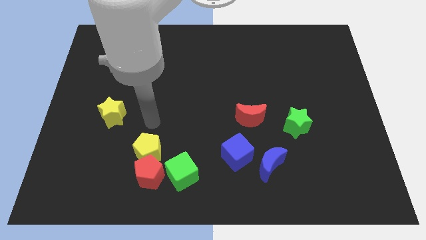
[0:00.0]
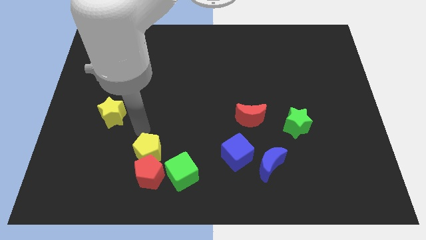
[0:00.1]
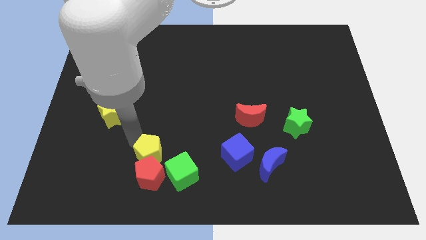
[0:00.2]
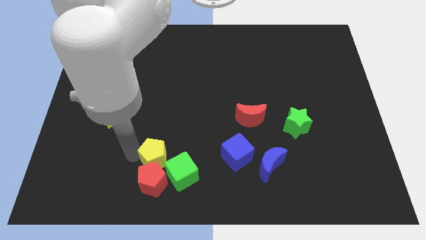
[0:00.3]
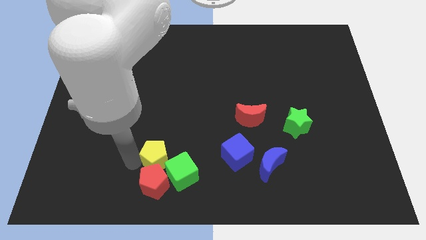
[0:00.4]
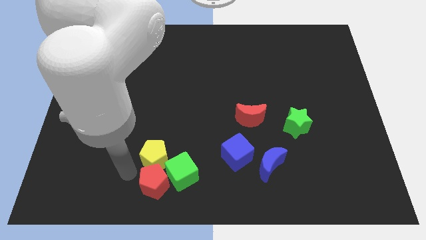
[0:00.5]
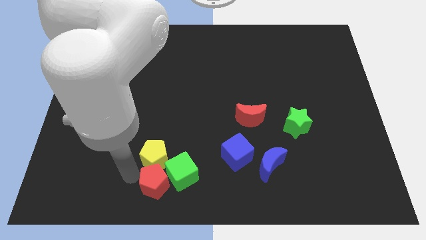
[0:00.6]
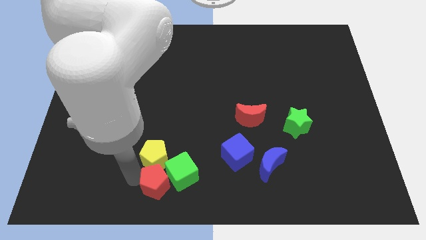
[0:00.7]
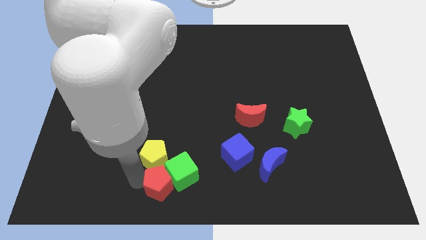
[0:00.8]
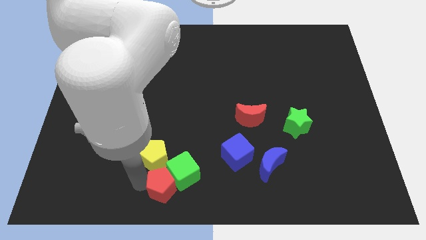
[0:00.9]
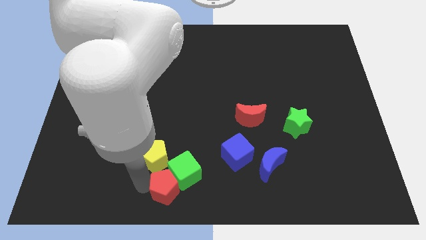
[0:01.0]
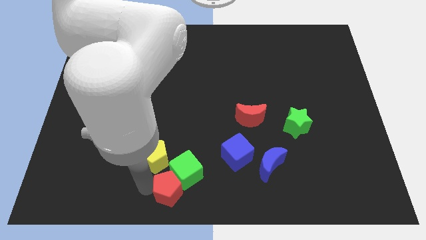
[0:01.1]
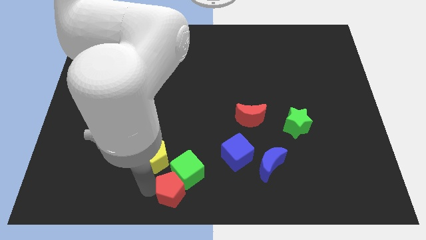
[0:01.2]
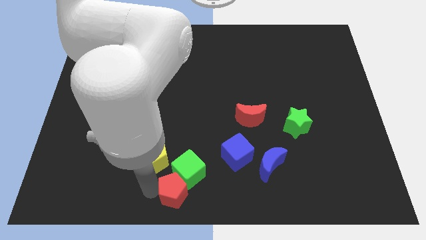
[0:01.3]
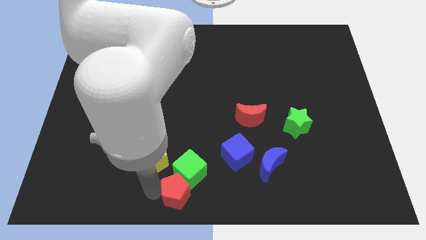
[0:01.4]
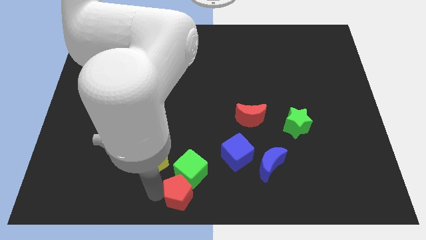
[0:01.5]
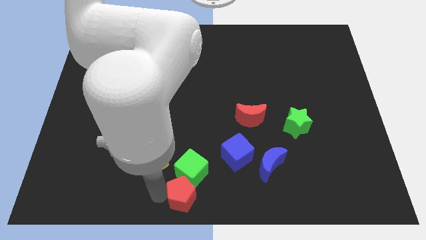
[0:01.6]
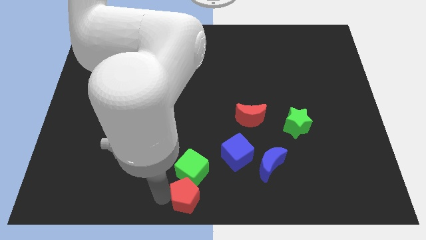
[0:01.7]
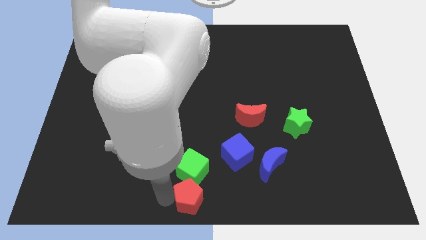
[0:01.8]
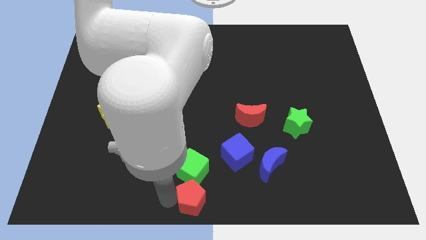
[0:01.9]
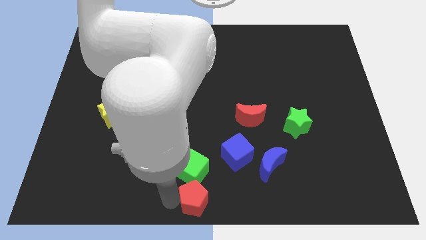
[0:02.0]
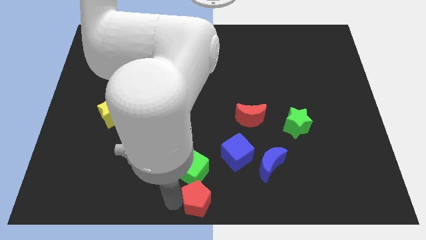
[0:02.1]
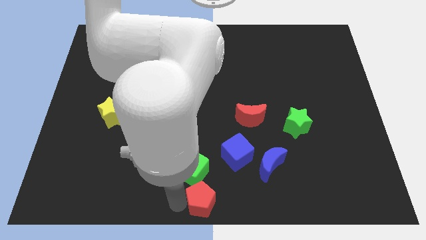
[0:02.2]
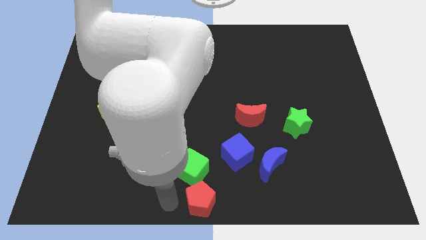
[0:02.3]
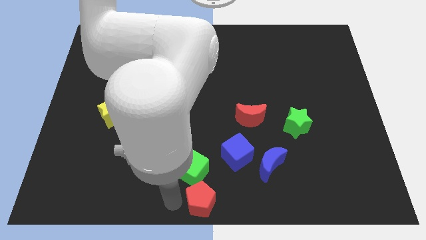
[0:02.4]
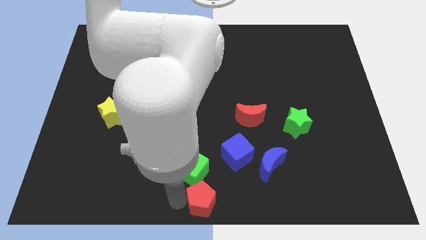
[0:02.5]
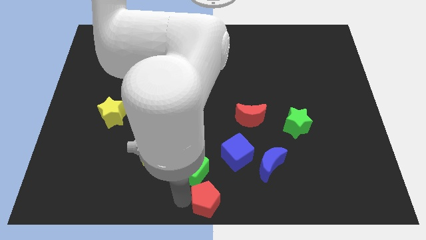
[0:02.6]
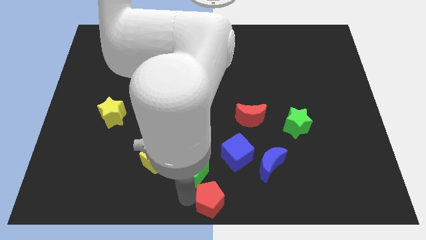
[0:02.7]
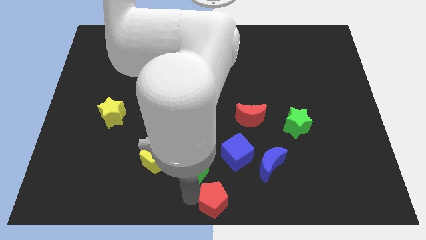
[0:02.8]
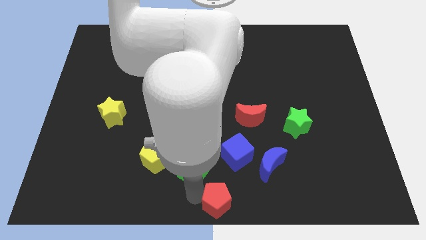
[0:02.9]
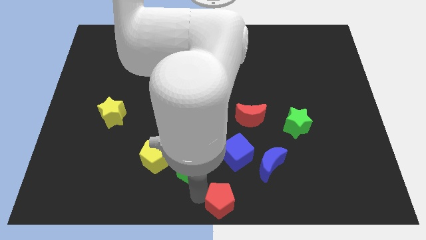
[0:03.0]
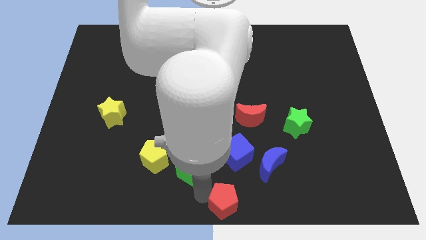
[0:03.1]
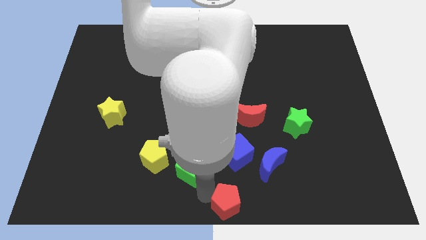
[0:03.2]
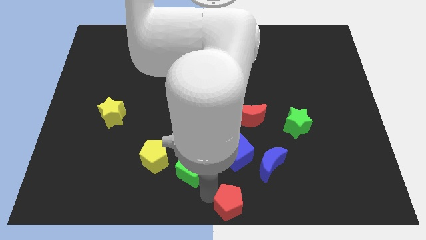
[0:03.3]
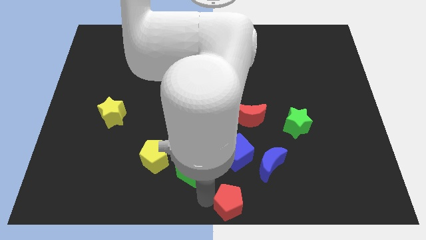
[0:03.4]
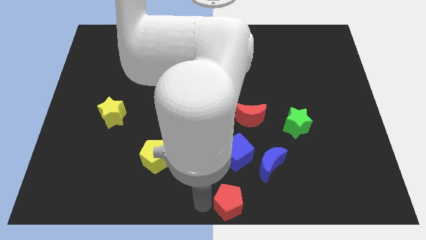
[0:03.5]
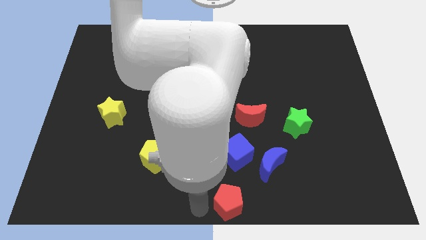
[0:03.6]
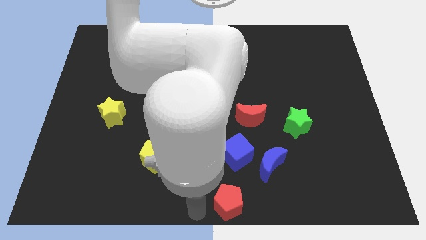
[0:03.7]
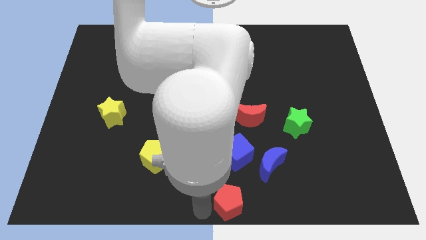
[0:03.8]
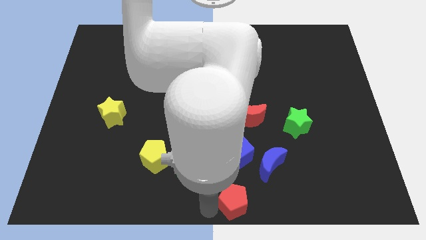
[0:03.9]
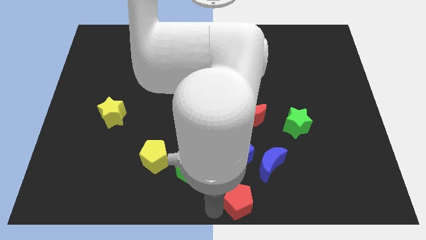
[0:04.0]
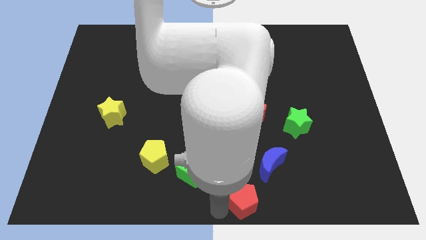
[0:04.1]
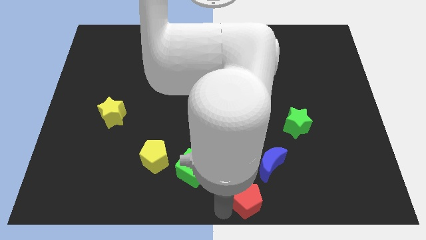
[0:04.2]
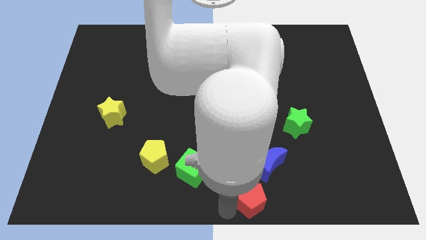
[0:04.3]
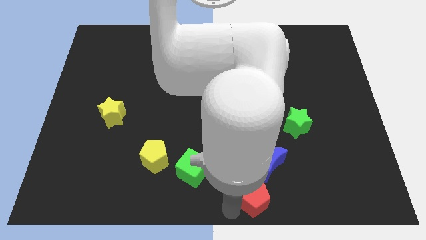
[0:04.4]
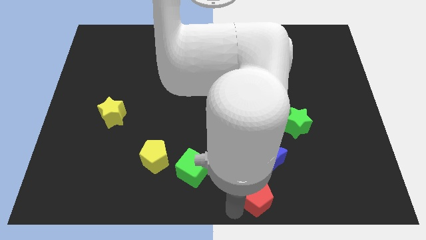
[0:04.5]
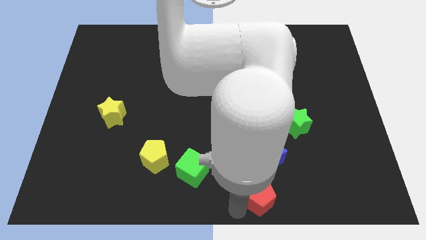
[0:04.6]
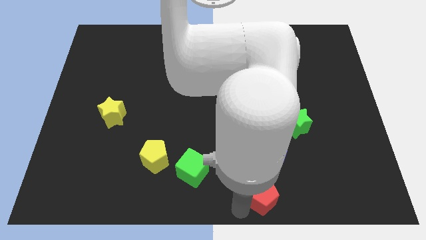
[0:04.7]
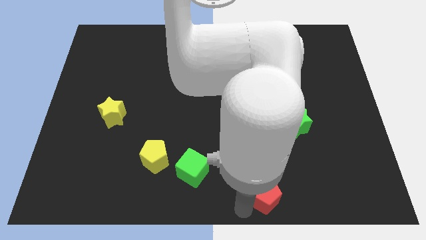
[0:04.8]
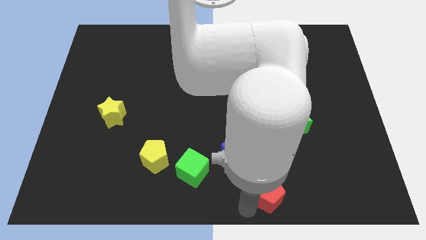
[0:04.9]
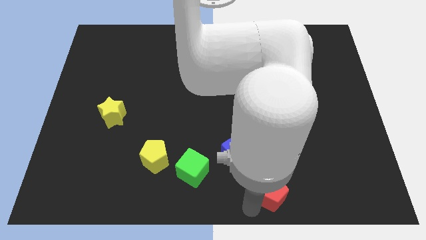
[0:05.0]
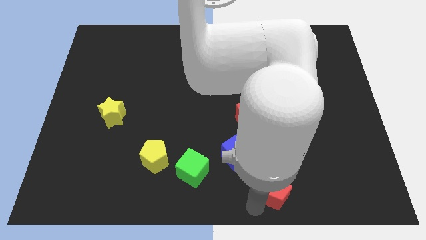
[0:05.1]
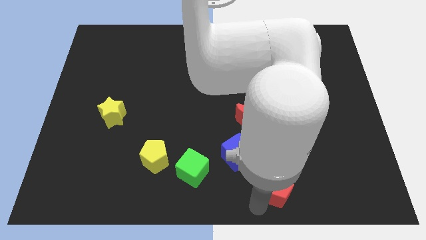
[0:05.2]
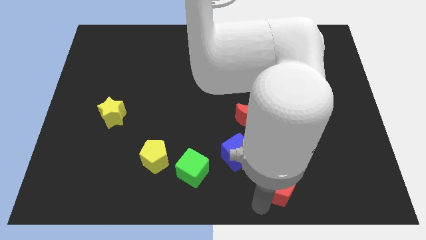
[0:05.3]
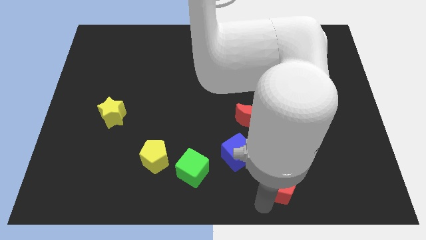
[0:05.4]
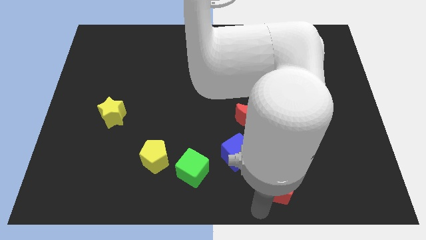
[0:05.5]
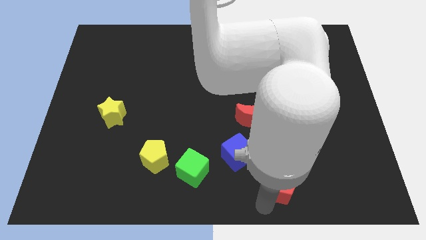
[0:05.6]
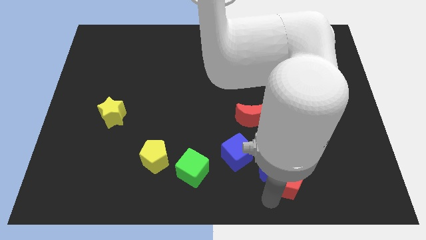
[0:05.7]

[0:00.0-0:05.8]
push the red pentagon to the bottom side of the green star

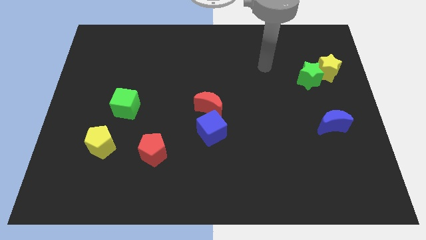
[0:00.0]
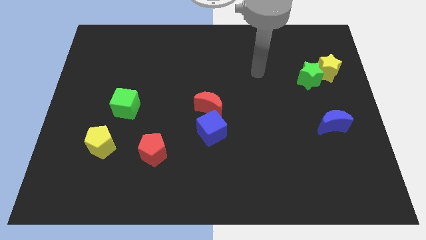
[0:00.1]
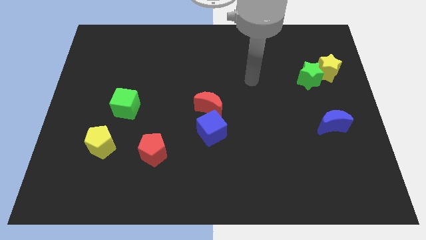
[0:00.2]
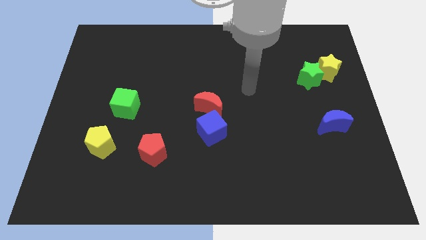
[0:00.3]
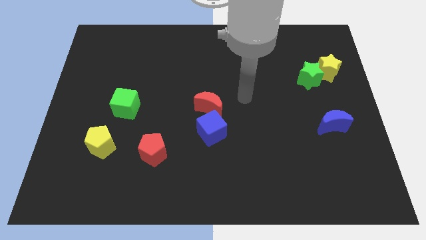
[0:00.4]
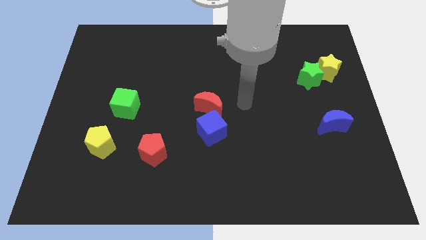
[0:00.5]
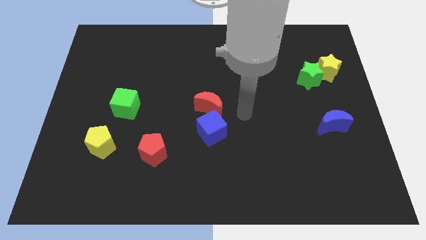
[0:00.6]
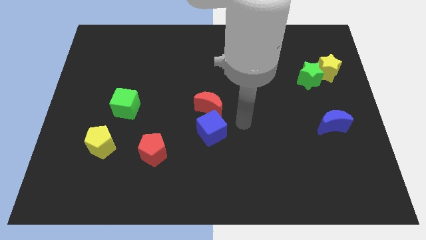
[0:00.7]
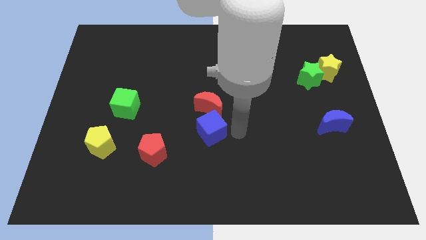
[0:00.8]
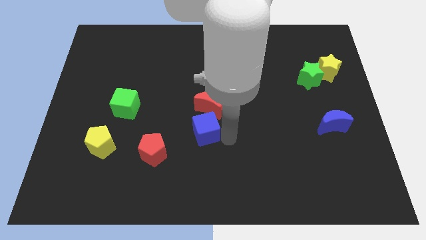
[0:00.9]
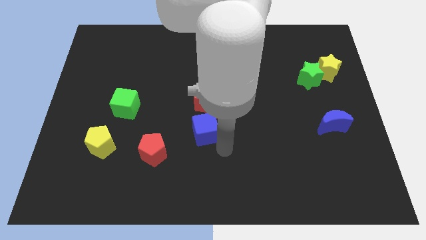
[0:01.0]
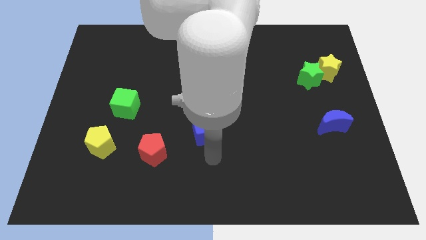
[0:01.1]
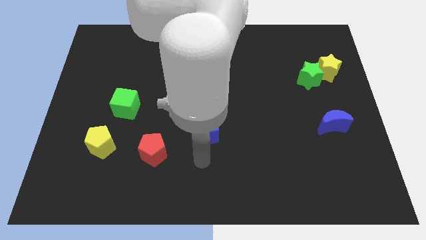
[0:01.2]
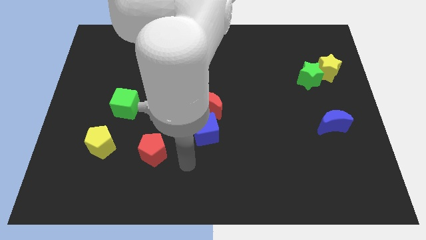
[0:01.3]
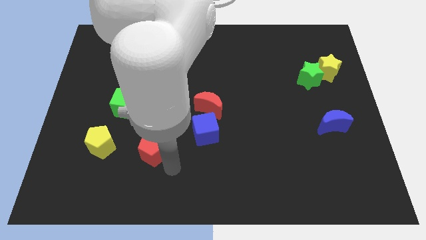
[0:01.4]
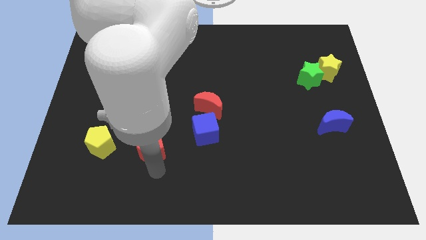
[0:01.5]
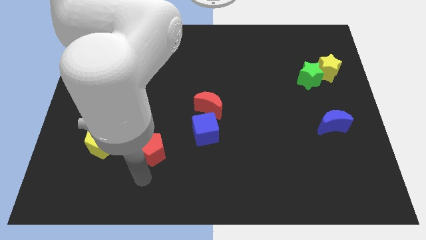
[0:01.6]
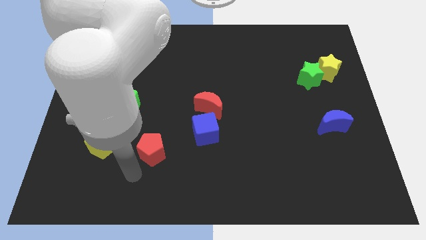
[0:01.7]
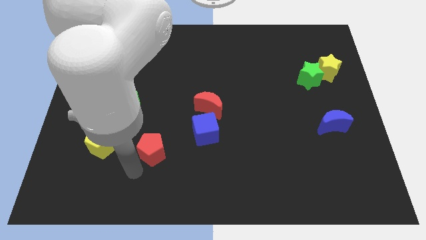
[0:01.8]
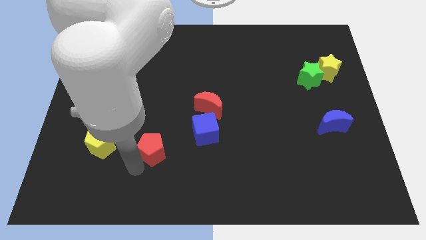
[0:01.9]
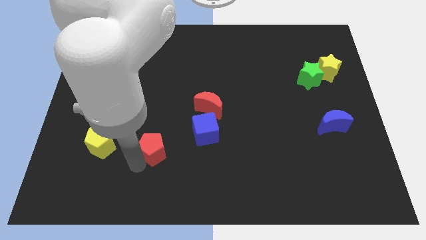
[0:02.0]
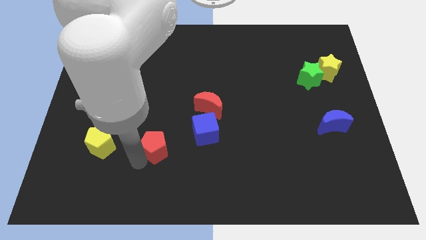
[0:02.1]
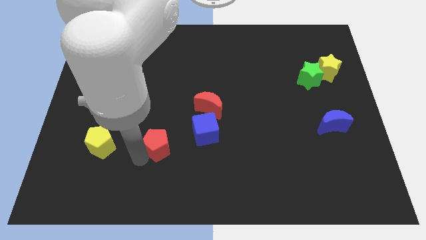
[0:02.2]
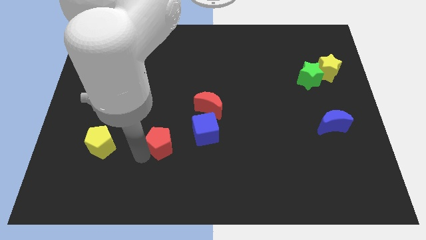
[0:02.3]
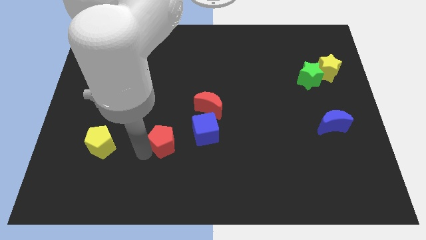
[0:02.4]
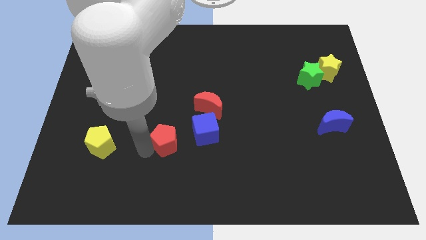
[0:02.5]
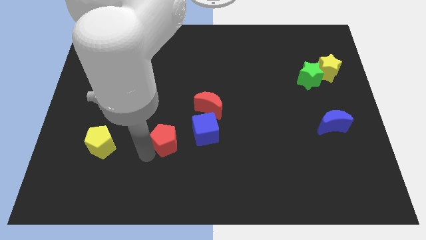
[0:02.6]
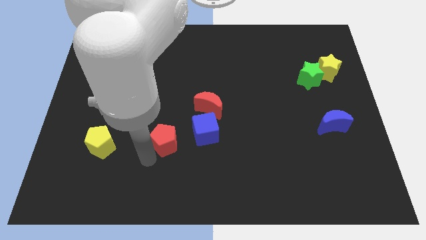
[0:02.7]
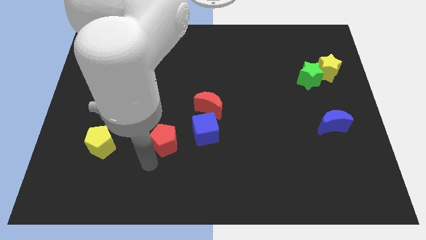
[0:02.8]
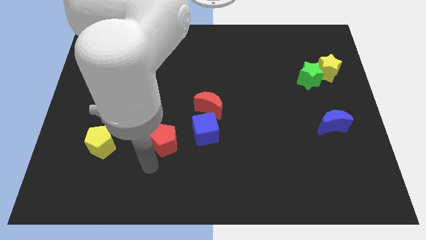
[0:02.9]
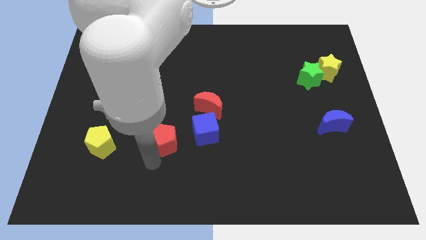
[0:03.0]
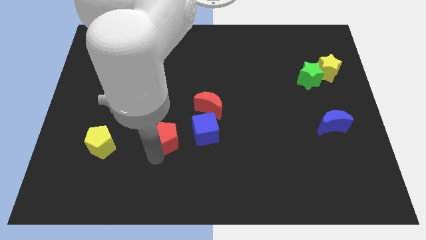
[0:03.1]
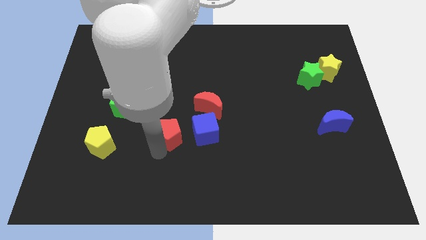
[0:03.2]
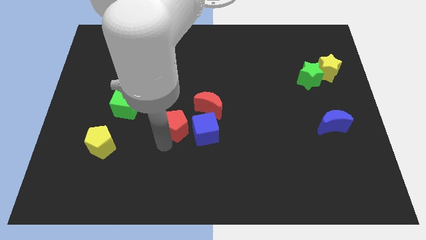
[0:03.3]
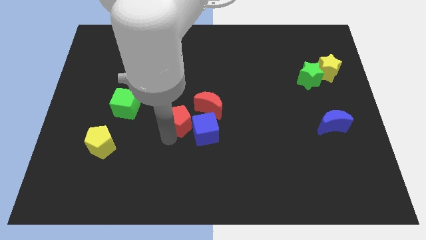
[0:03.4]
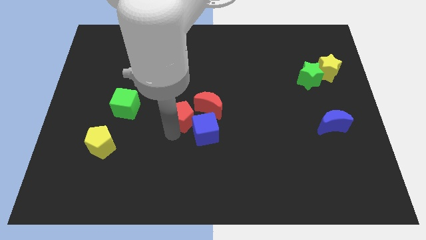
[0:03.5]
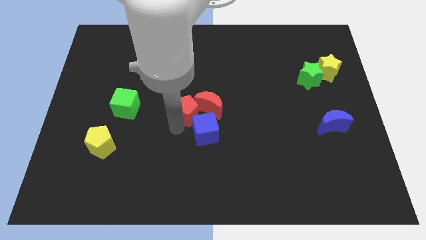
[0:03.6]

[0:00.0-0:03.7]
slide the red pentagon to the top side of the blue cube
